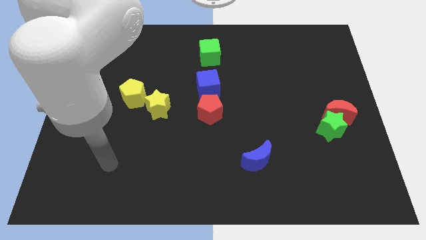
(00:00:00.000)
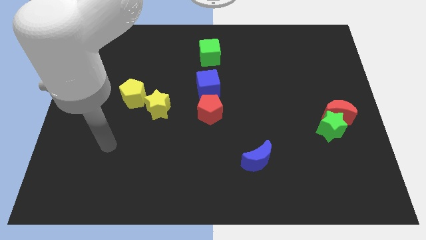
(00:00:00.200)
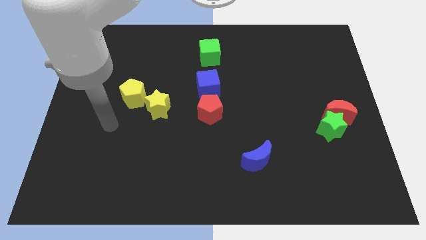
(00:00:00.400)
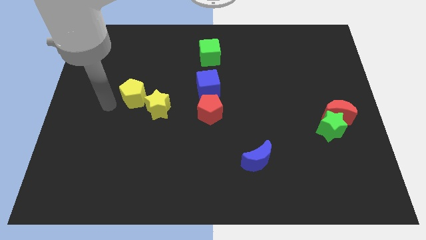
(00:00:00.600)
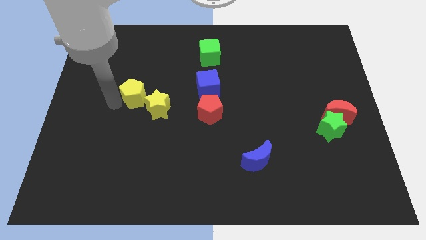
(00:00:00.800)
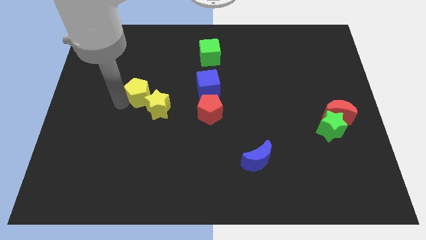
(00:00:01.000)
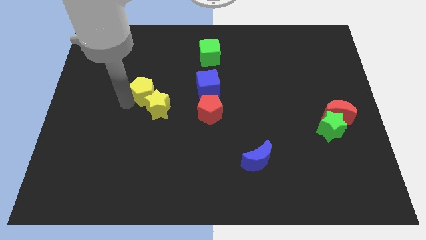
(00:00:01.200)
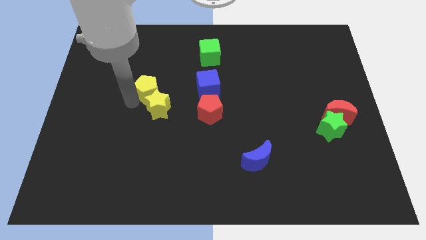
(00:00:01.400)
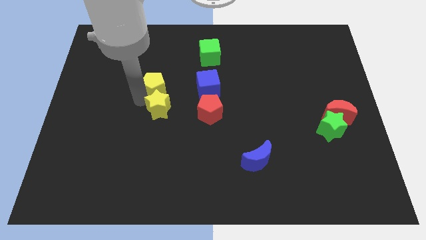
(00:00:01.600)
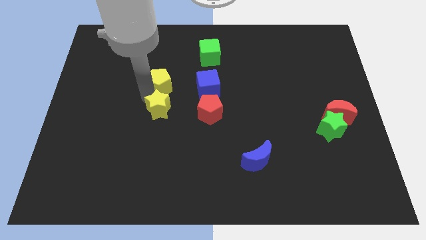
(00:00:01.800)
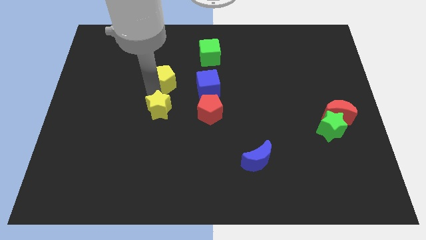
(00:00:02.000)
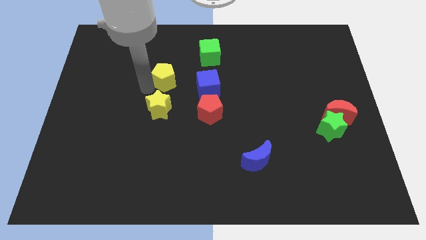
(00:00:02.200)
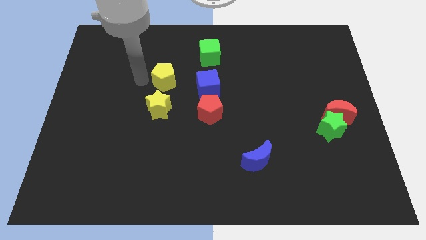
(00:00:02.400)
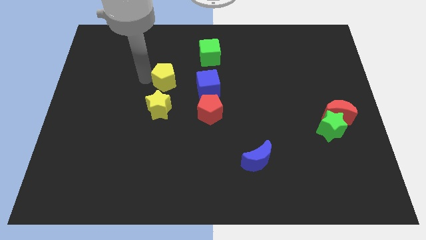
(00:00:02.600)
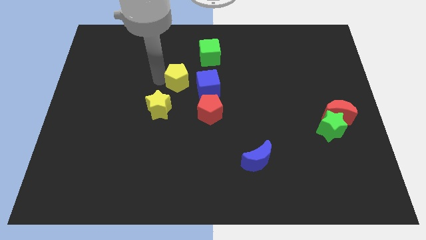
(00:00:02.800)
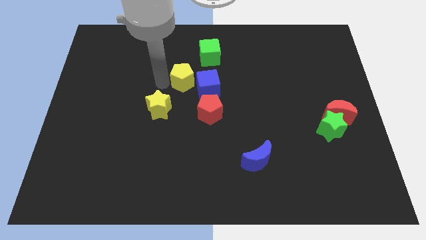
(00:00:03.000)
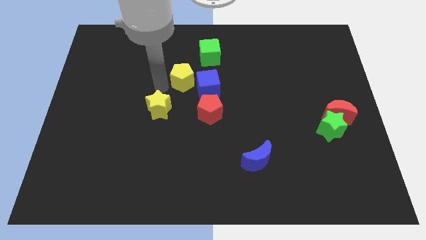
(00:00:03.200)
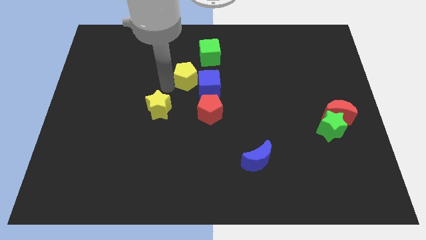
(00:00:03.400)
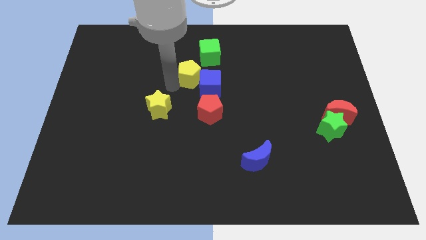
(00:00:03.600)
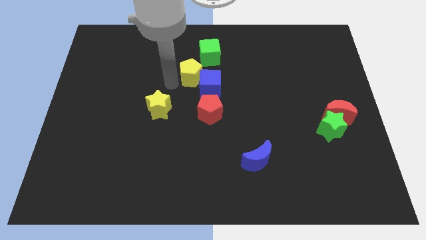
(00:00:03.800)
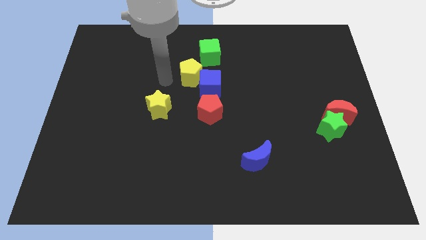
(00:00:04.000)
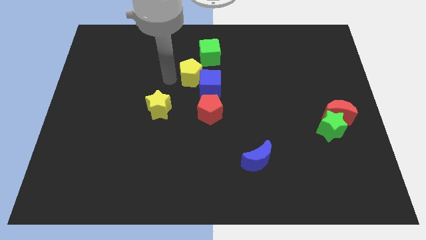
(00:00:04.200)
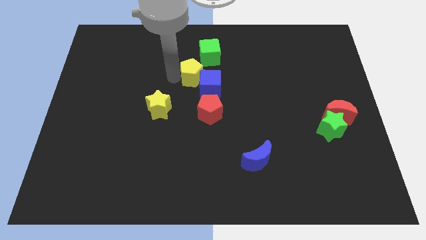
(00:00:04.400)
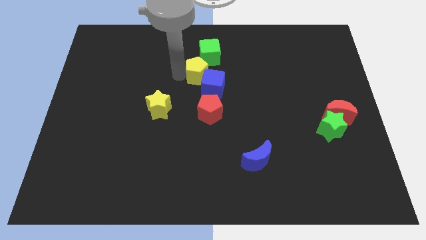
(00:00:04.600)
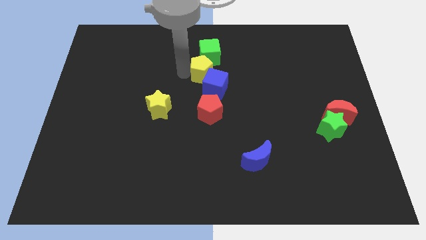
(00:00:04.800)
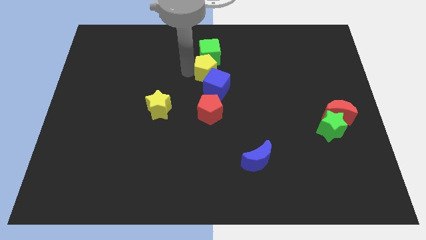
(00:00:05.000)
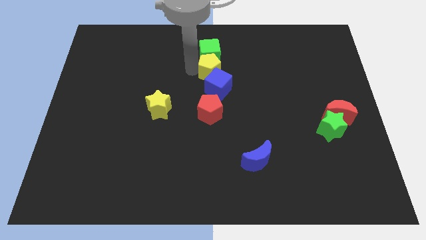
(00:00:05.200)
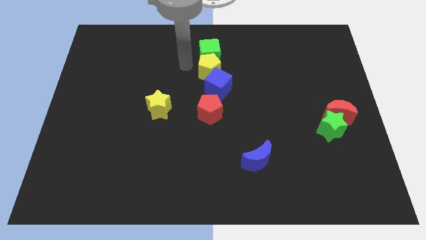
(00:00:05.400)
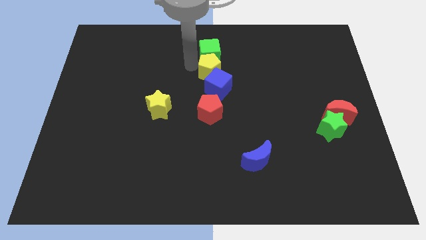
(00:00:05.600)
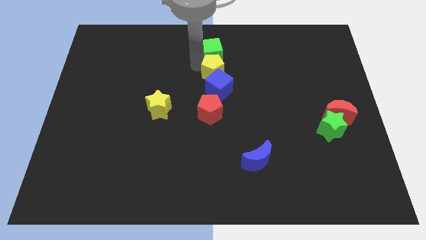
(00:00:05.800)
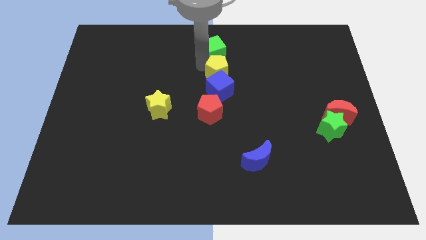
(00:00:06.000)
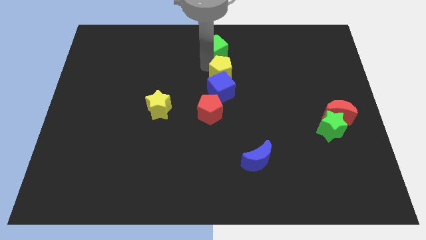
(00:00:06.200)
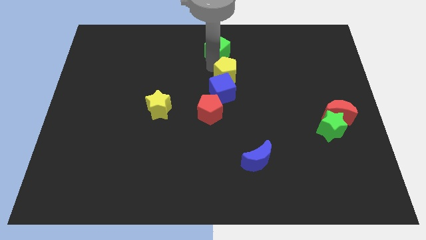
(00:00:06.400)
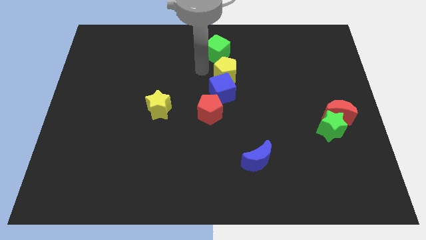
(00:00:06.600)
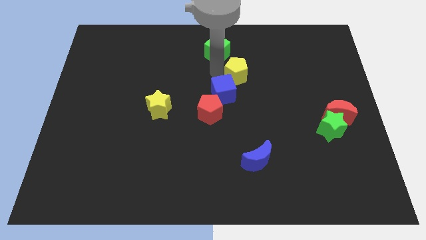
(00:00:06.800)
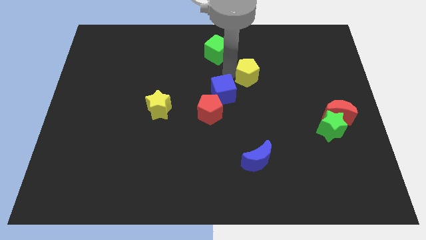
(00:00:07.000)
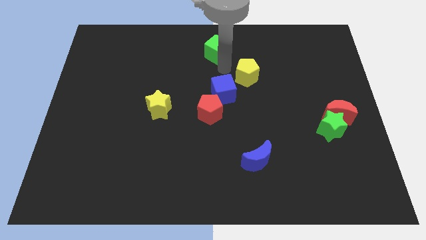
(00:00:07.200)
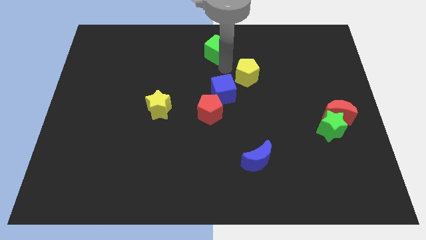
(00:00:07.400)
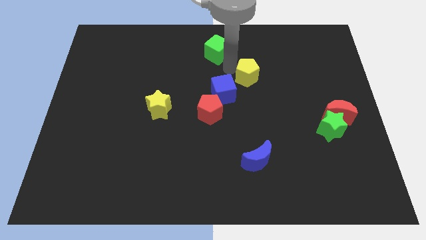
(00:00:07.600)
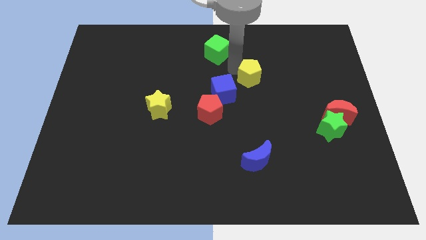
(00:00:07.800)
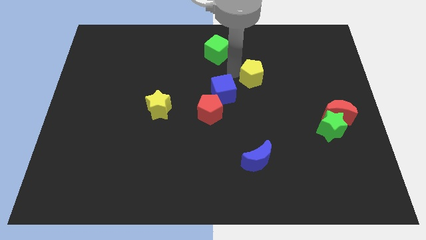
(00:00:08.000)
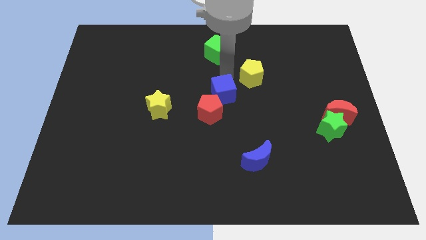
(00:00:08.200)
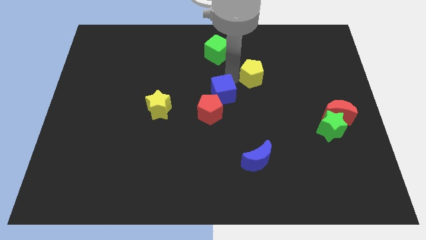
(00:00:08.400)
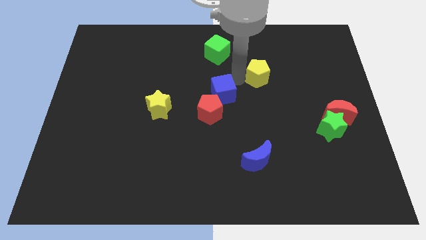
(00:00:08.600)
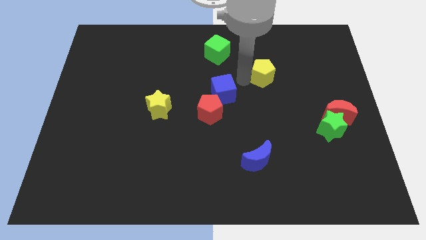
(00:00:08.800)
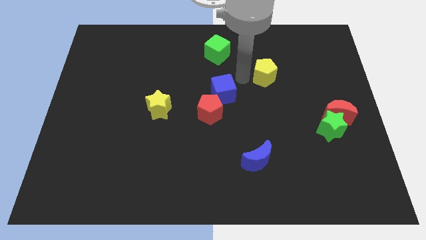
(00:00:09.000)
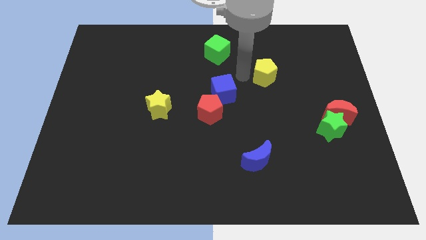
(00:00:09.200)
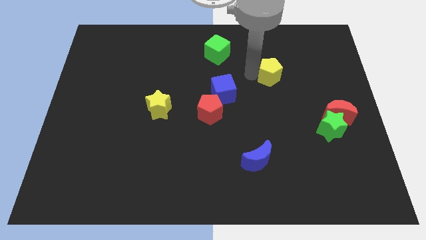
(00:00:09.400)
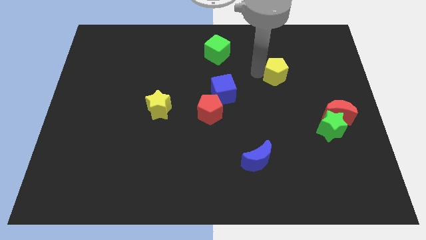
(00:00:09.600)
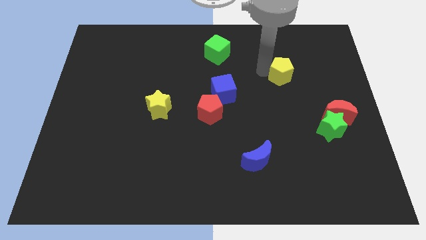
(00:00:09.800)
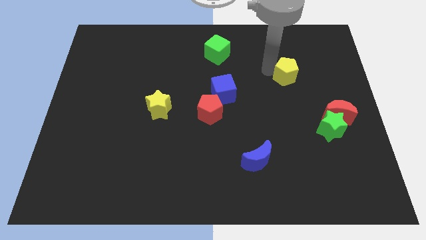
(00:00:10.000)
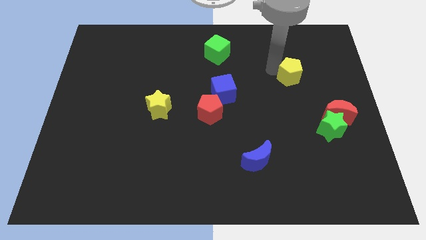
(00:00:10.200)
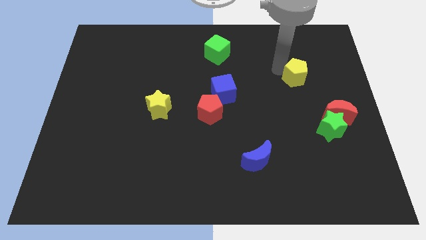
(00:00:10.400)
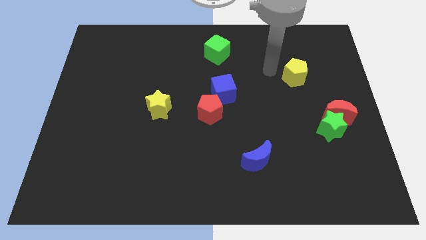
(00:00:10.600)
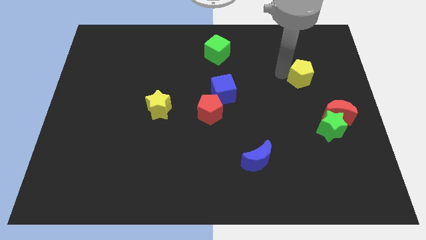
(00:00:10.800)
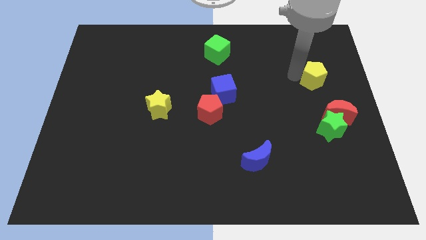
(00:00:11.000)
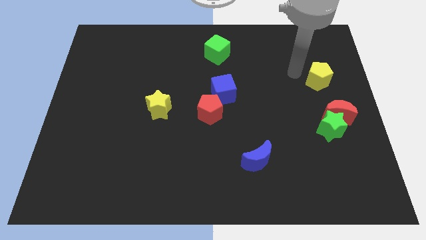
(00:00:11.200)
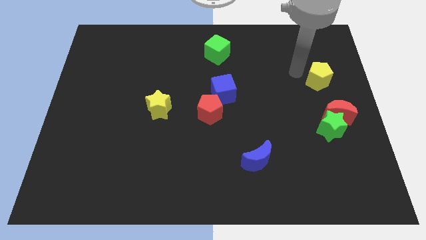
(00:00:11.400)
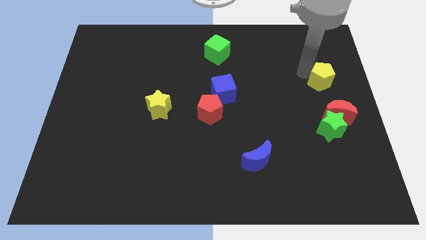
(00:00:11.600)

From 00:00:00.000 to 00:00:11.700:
put the yellow pentagon to the center right

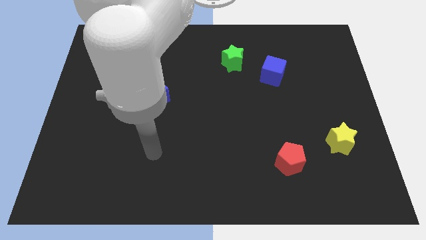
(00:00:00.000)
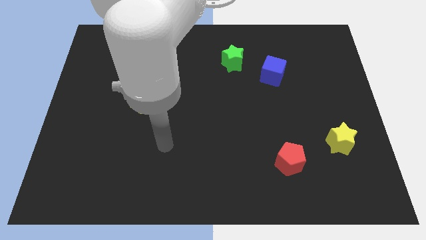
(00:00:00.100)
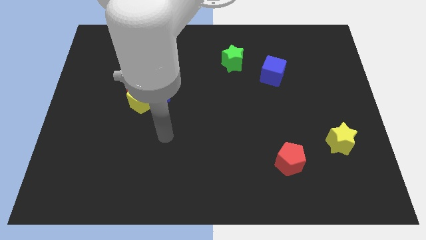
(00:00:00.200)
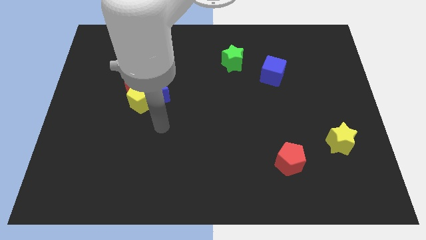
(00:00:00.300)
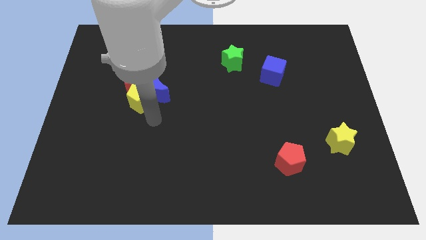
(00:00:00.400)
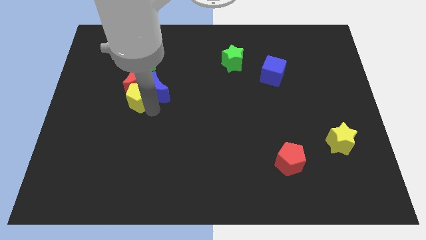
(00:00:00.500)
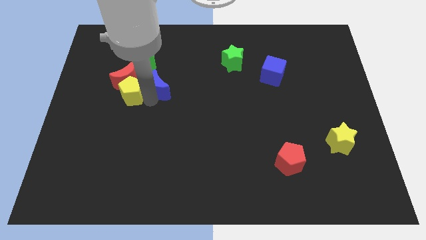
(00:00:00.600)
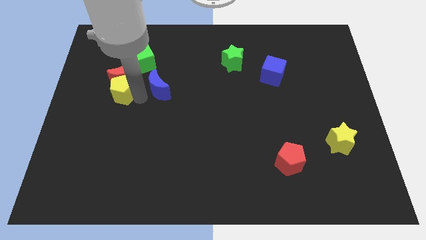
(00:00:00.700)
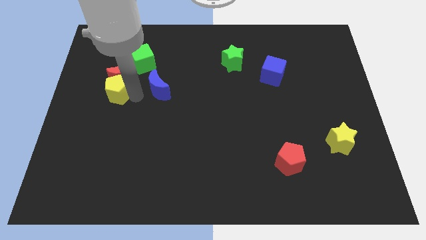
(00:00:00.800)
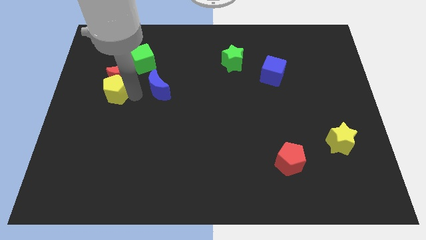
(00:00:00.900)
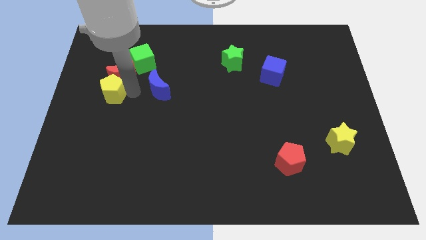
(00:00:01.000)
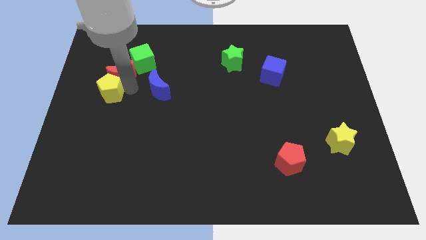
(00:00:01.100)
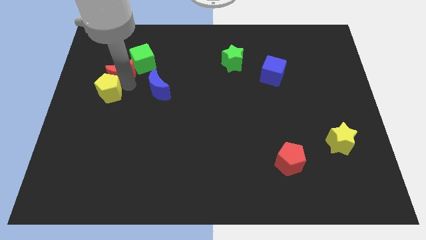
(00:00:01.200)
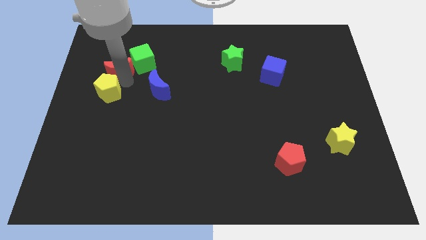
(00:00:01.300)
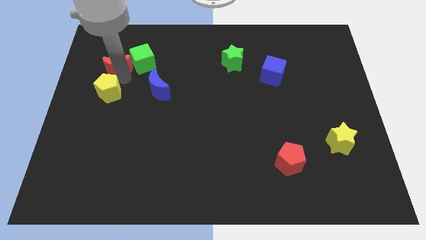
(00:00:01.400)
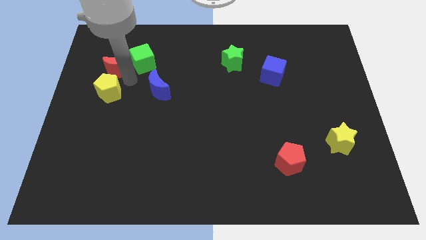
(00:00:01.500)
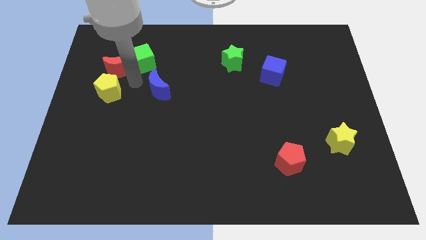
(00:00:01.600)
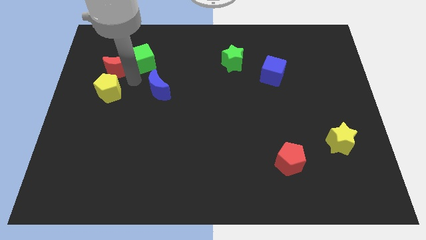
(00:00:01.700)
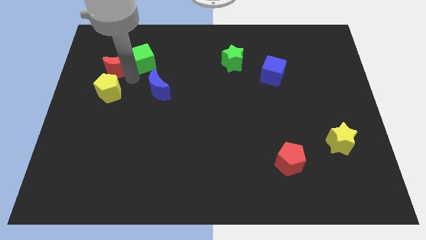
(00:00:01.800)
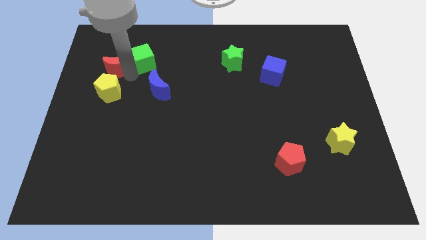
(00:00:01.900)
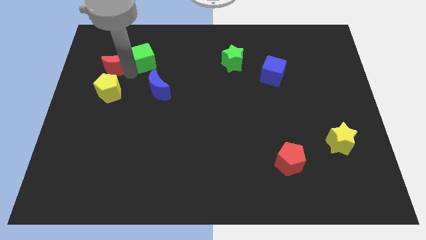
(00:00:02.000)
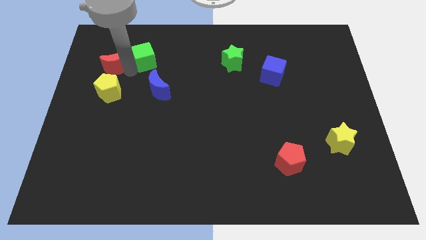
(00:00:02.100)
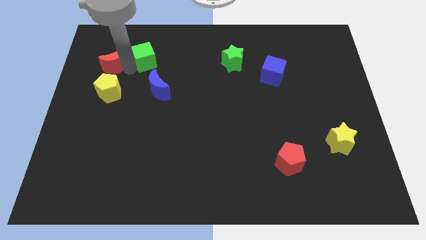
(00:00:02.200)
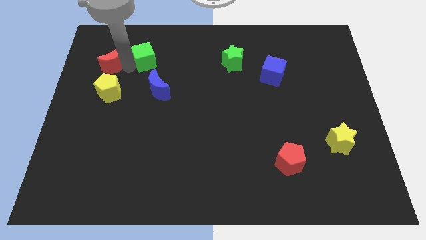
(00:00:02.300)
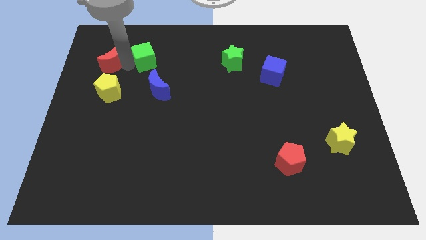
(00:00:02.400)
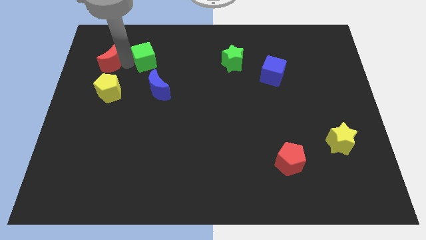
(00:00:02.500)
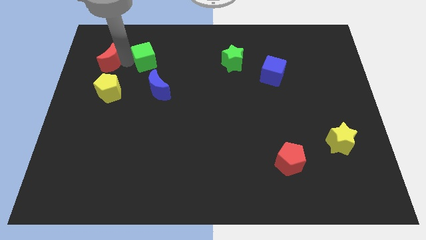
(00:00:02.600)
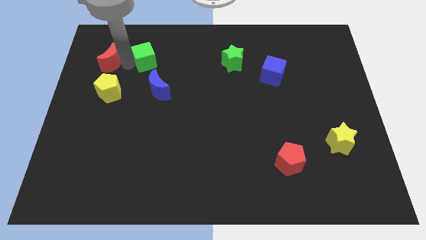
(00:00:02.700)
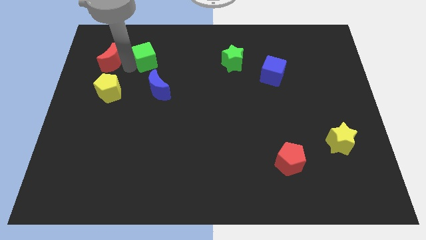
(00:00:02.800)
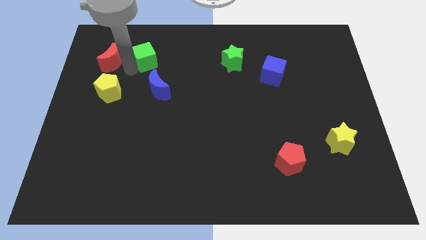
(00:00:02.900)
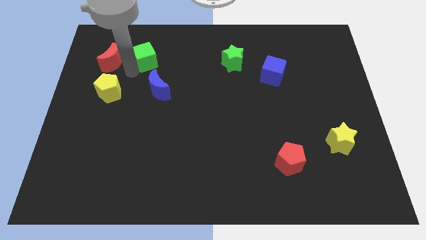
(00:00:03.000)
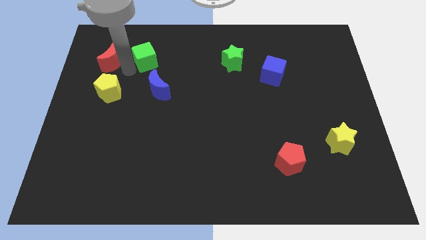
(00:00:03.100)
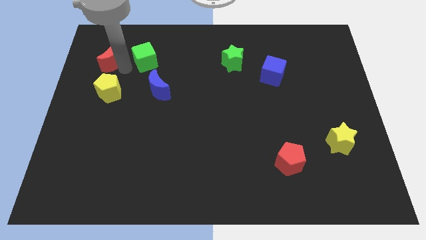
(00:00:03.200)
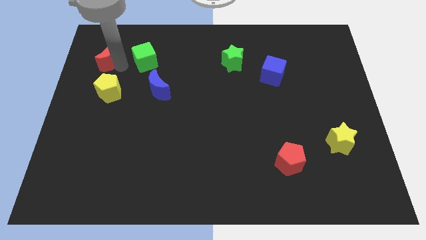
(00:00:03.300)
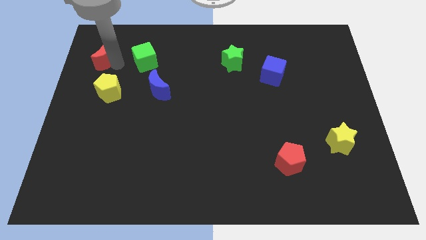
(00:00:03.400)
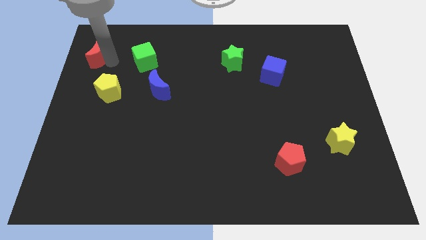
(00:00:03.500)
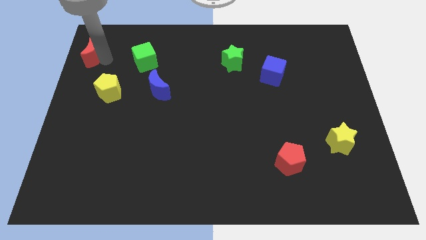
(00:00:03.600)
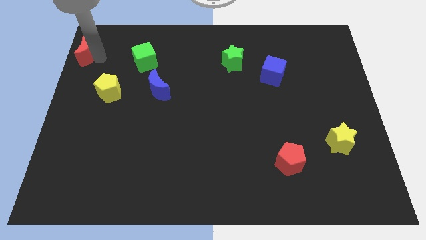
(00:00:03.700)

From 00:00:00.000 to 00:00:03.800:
put the red moon to the upper left corner
